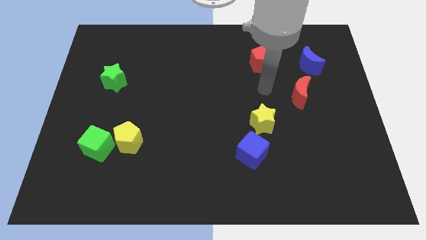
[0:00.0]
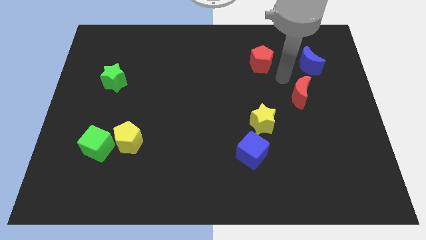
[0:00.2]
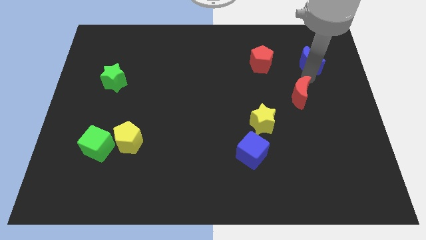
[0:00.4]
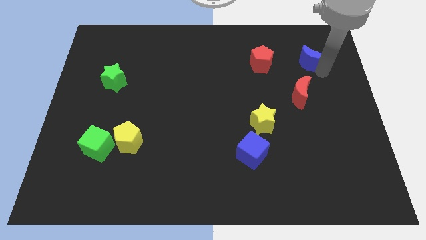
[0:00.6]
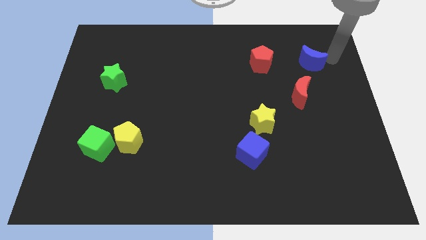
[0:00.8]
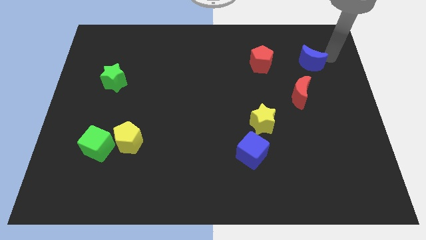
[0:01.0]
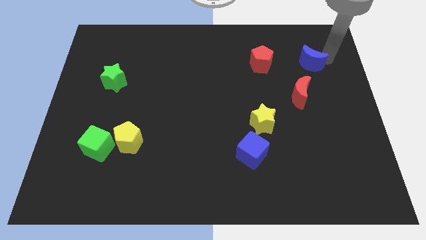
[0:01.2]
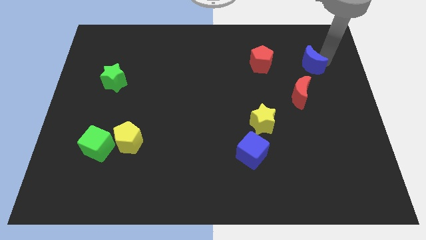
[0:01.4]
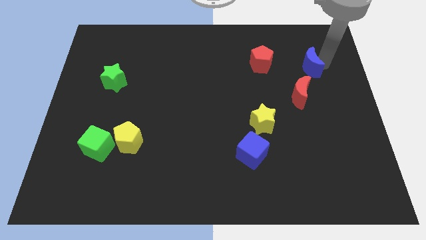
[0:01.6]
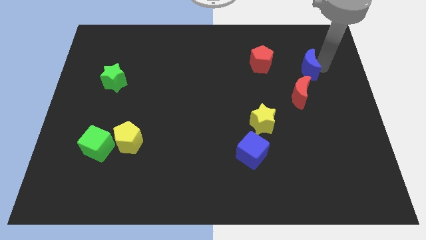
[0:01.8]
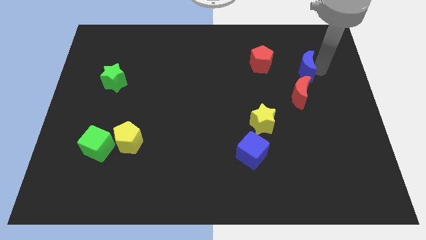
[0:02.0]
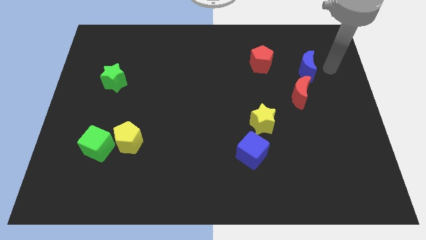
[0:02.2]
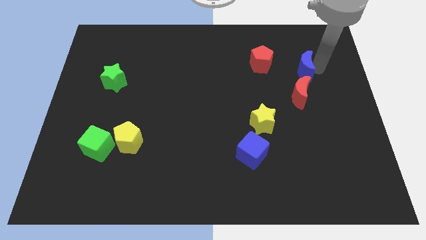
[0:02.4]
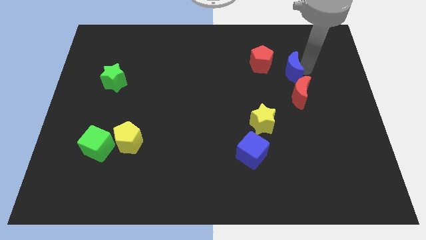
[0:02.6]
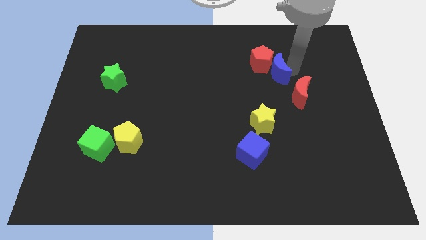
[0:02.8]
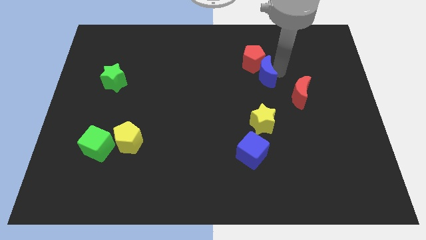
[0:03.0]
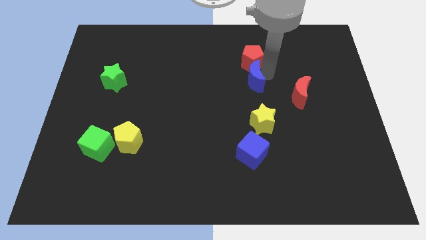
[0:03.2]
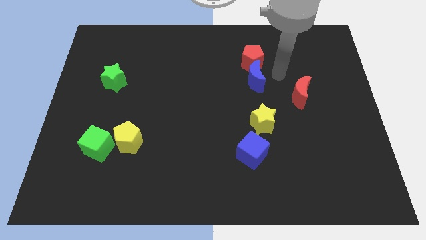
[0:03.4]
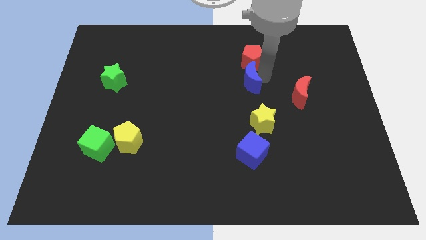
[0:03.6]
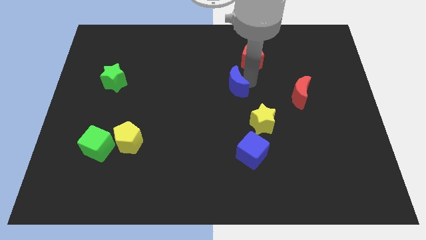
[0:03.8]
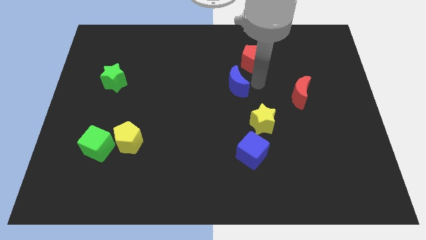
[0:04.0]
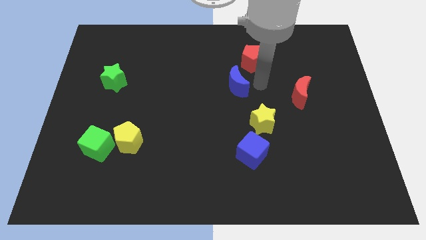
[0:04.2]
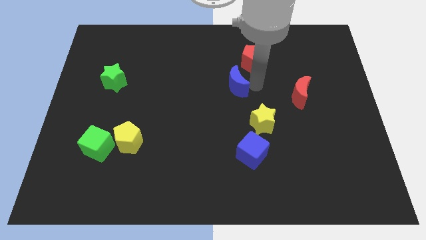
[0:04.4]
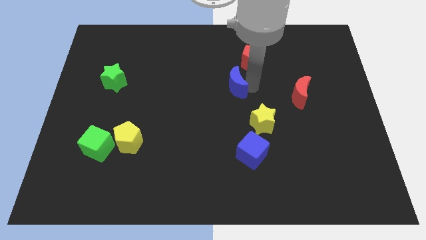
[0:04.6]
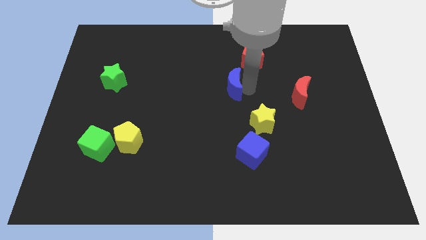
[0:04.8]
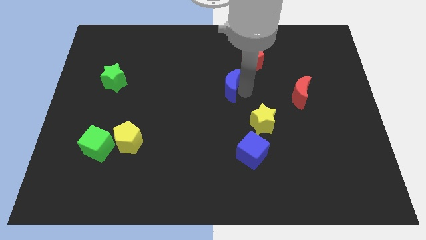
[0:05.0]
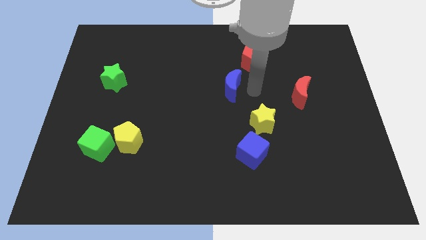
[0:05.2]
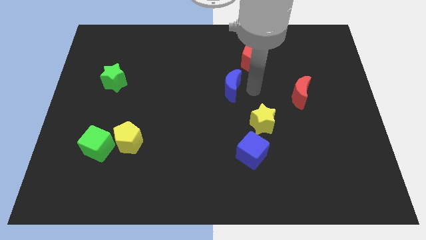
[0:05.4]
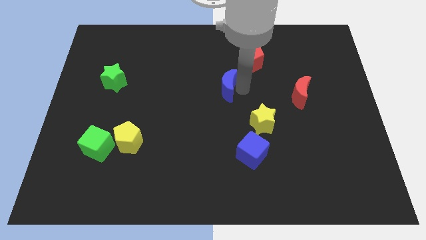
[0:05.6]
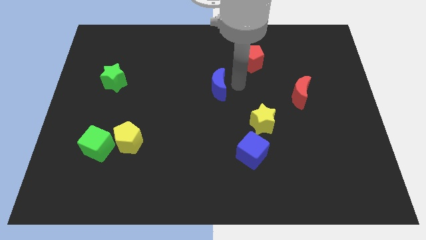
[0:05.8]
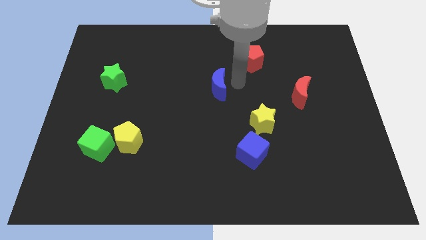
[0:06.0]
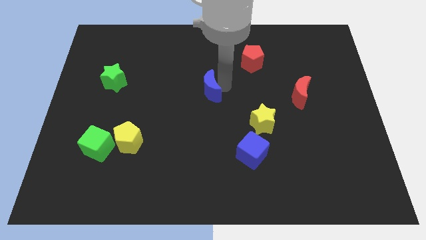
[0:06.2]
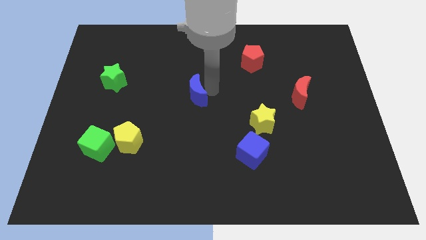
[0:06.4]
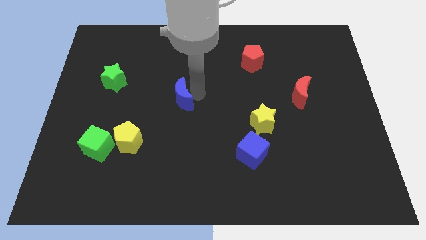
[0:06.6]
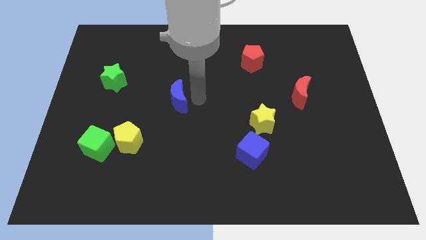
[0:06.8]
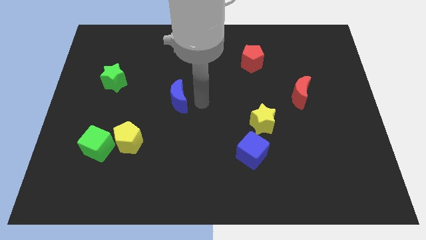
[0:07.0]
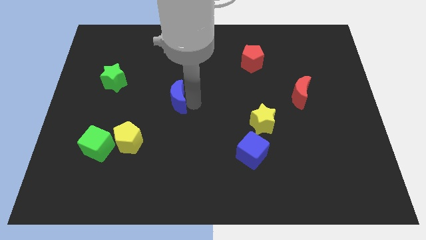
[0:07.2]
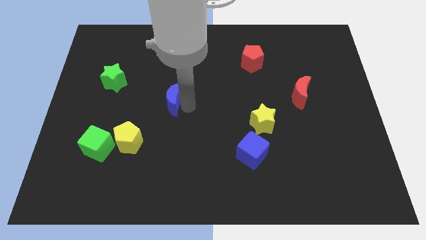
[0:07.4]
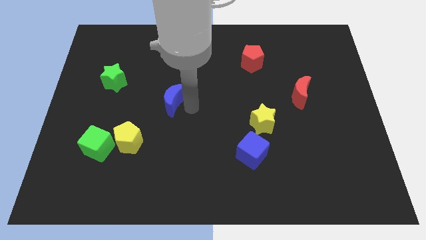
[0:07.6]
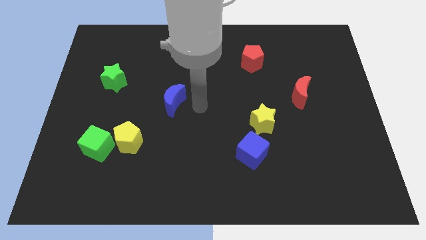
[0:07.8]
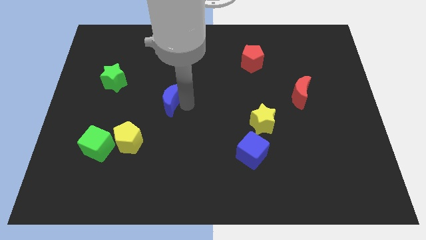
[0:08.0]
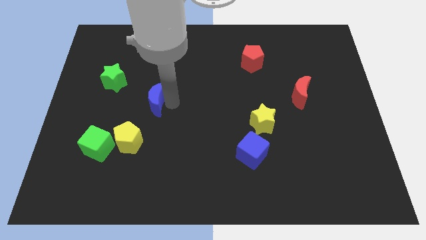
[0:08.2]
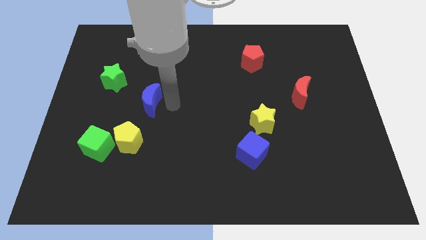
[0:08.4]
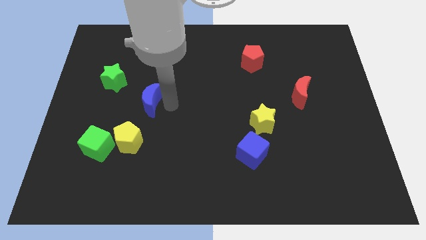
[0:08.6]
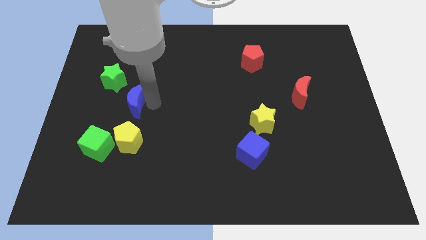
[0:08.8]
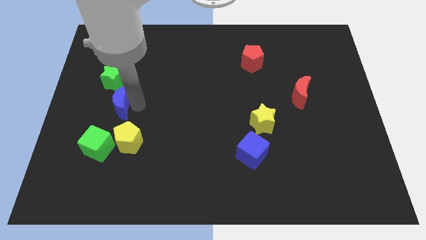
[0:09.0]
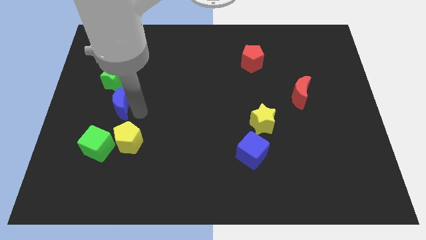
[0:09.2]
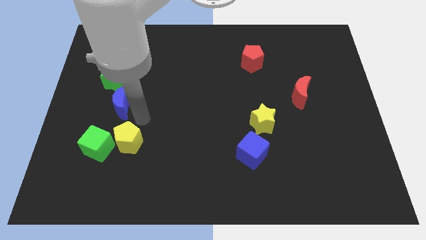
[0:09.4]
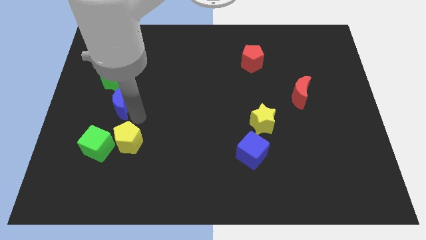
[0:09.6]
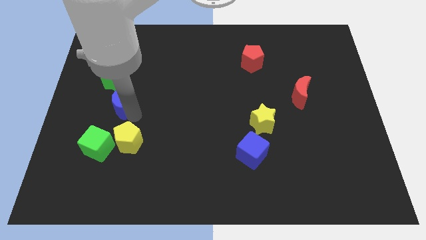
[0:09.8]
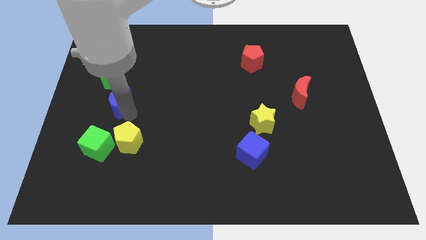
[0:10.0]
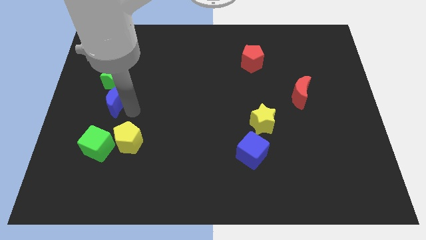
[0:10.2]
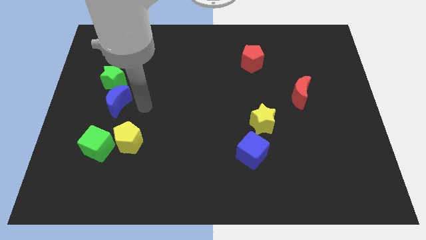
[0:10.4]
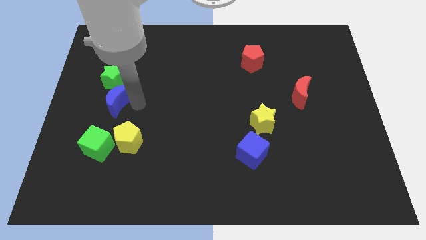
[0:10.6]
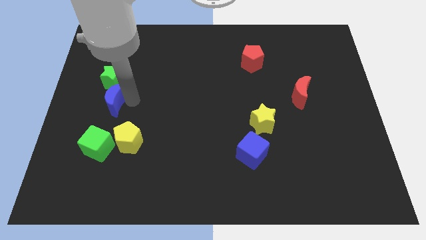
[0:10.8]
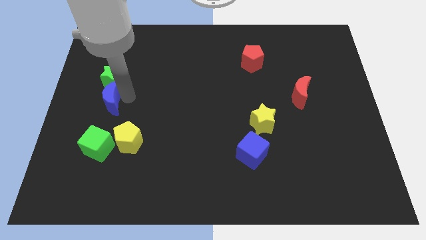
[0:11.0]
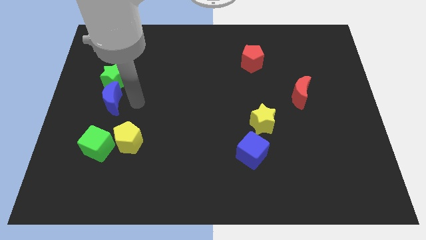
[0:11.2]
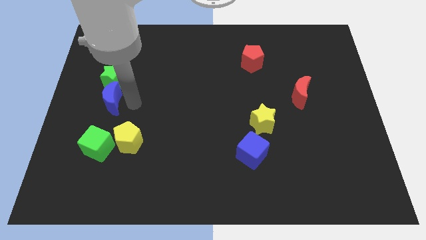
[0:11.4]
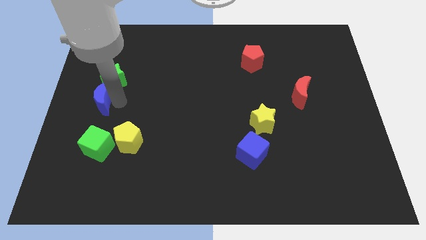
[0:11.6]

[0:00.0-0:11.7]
put the blue moon to the center left
